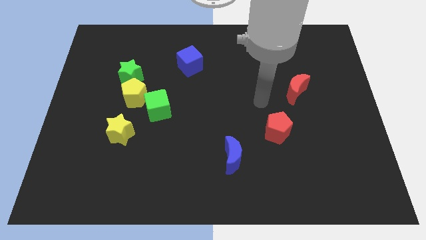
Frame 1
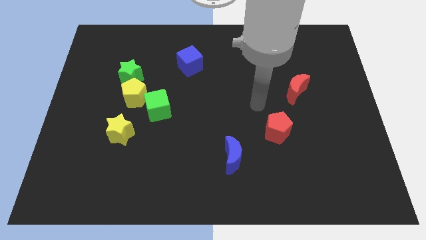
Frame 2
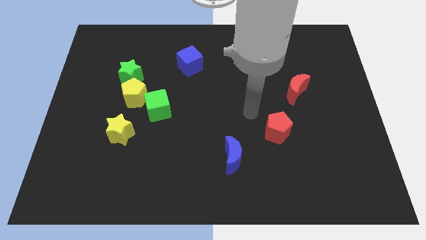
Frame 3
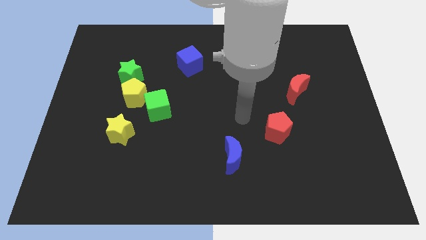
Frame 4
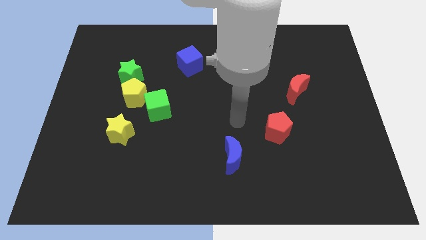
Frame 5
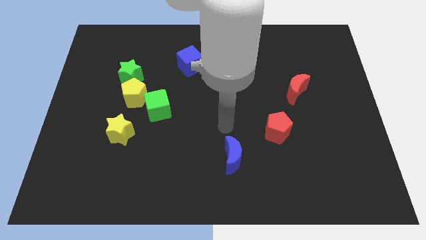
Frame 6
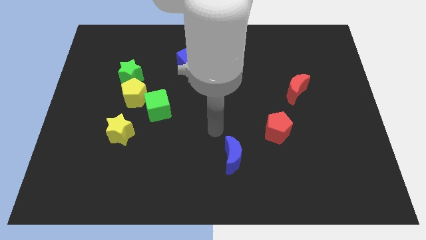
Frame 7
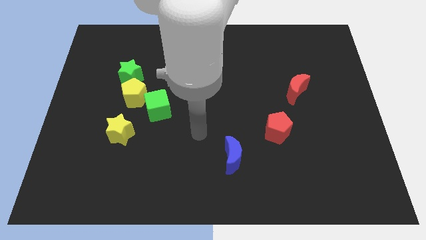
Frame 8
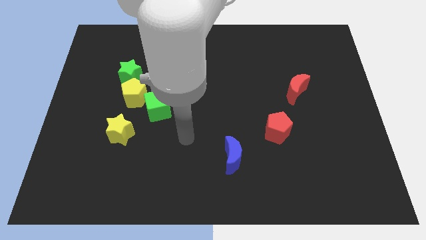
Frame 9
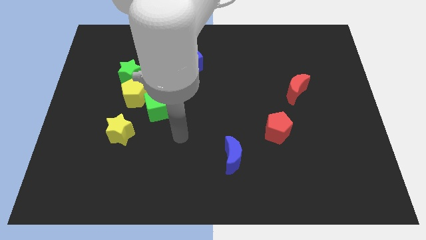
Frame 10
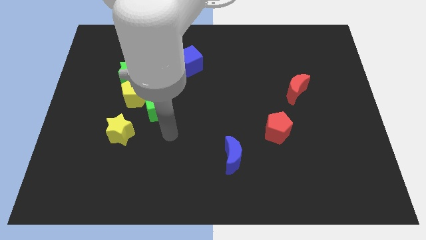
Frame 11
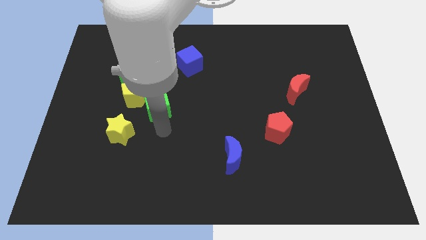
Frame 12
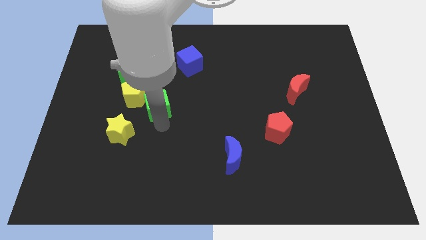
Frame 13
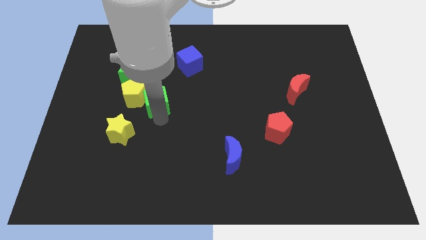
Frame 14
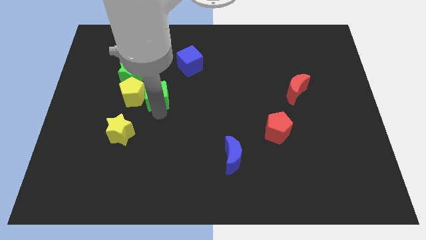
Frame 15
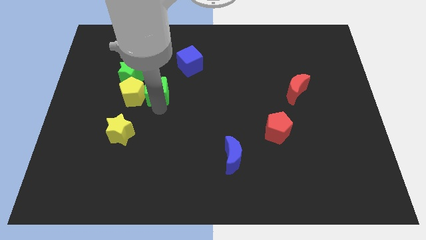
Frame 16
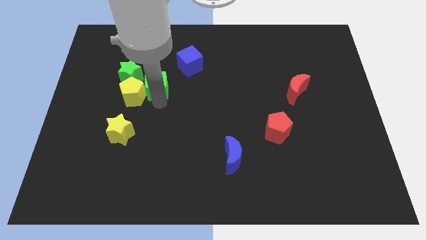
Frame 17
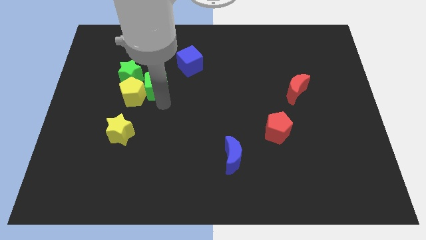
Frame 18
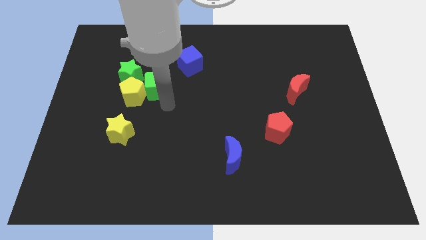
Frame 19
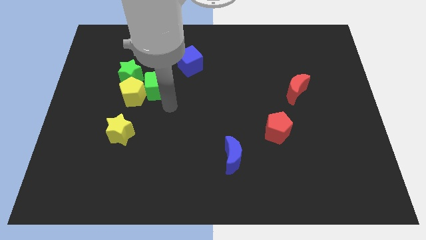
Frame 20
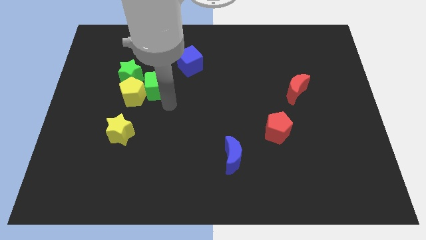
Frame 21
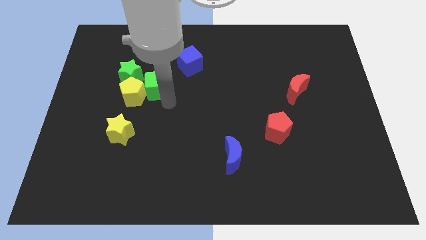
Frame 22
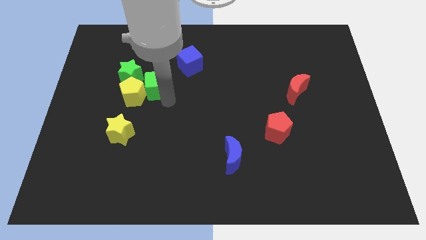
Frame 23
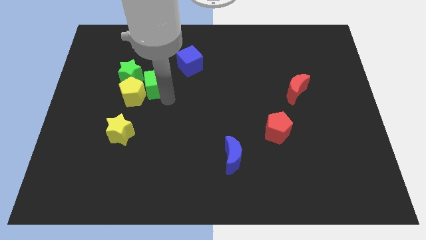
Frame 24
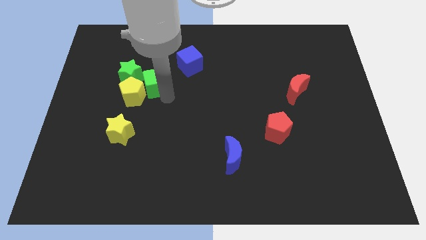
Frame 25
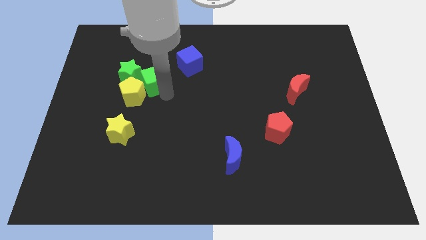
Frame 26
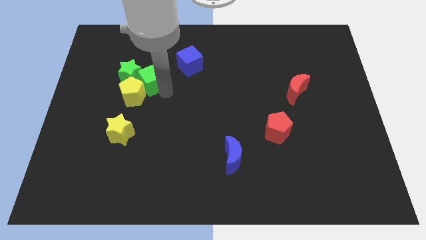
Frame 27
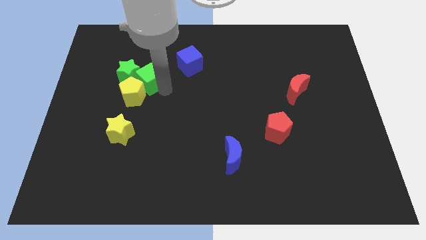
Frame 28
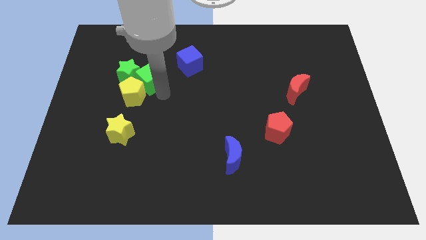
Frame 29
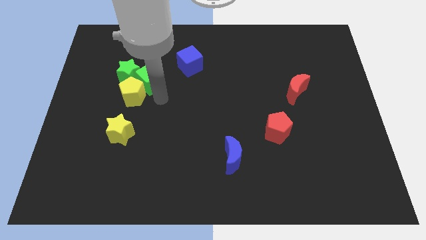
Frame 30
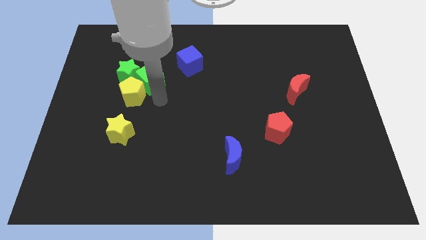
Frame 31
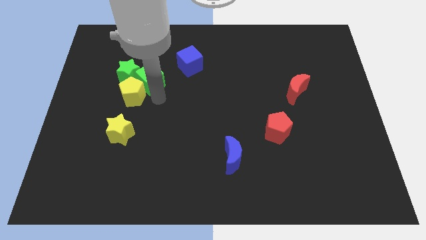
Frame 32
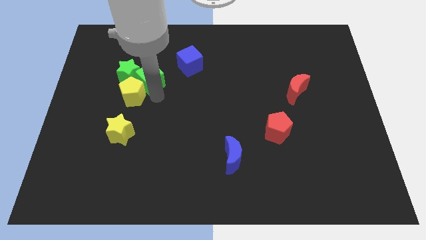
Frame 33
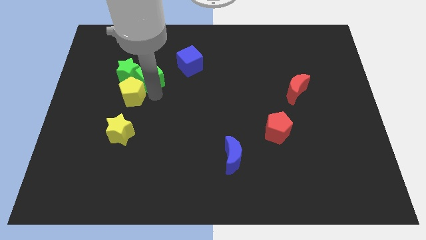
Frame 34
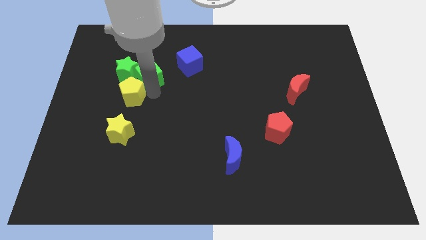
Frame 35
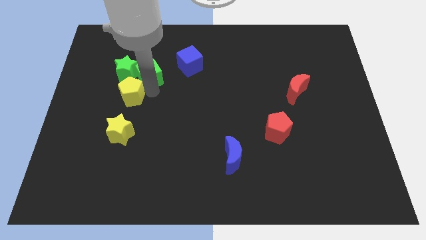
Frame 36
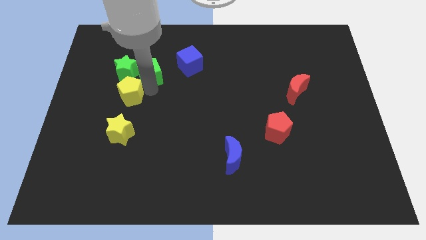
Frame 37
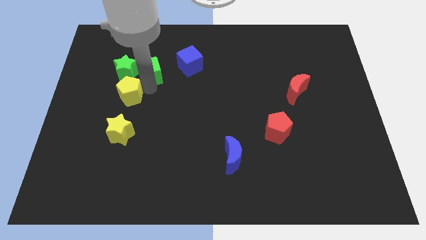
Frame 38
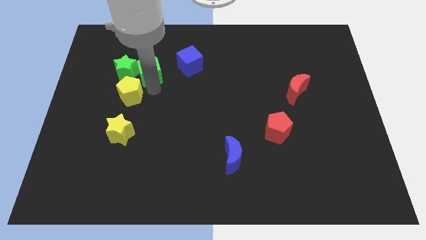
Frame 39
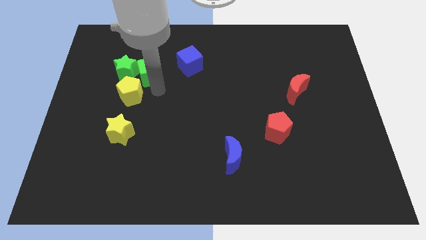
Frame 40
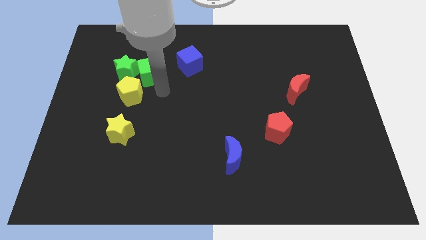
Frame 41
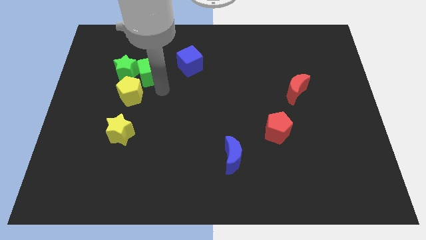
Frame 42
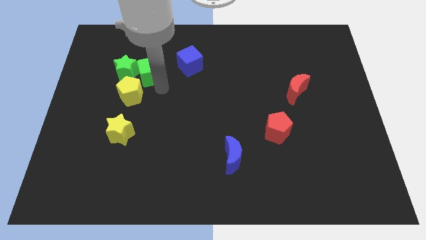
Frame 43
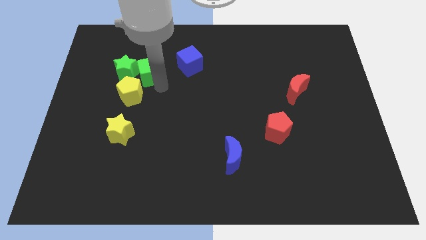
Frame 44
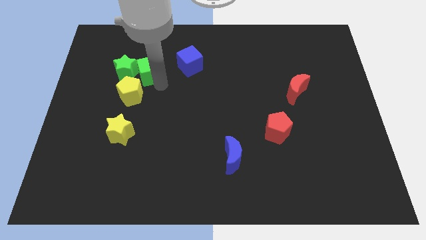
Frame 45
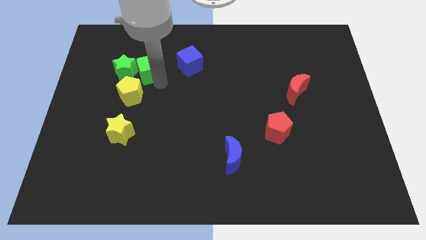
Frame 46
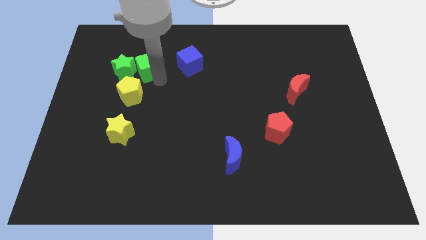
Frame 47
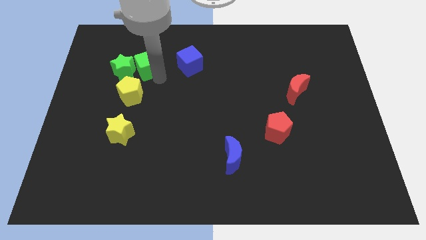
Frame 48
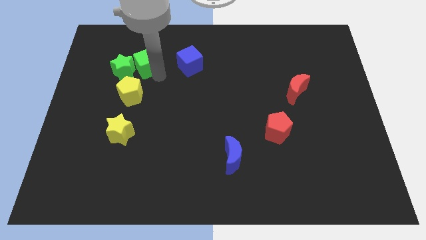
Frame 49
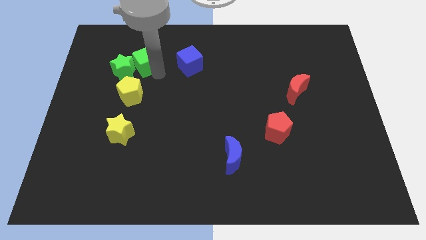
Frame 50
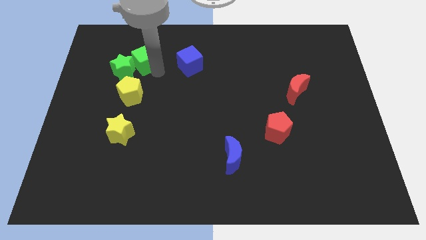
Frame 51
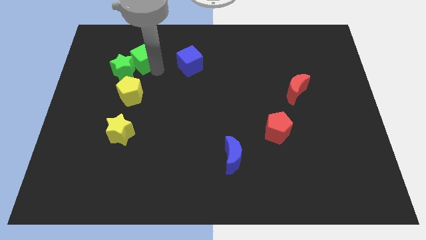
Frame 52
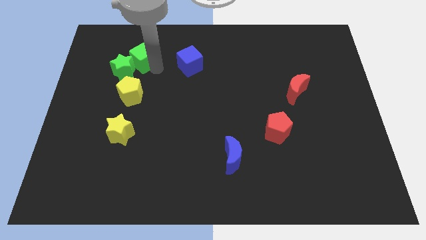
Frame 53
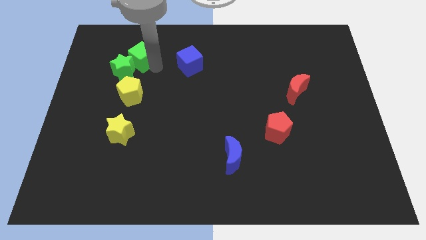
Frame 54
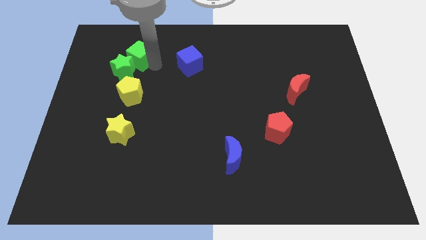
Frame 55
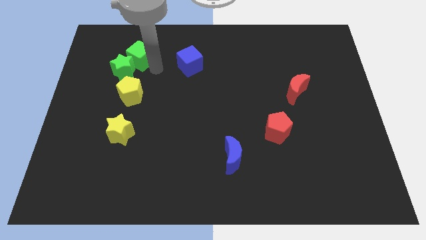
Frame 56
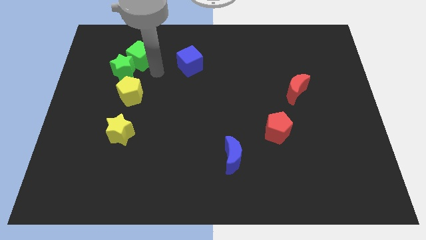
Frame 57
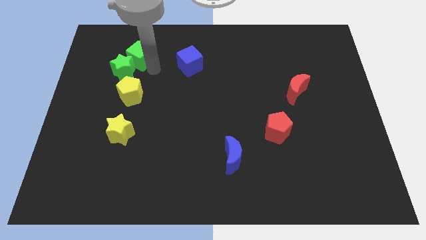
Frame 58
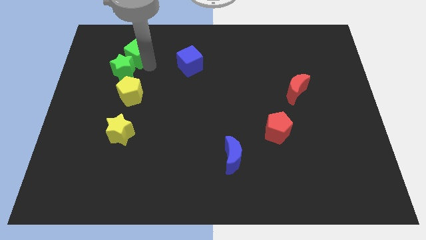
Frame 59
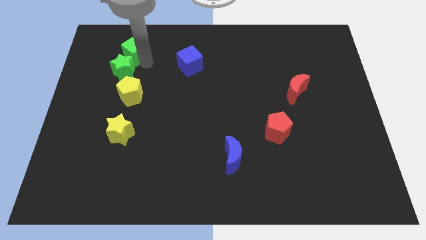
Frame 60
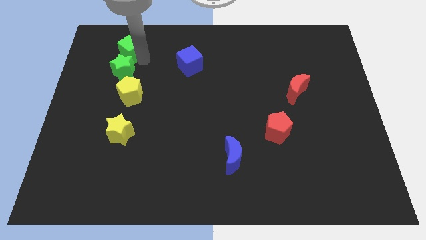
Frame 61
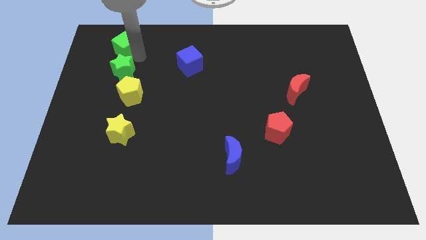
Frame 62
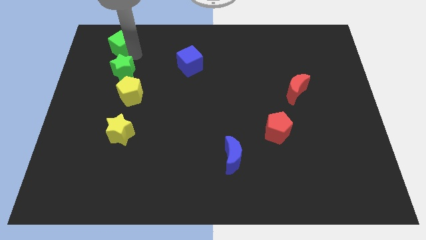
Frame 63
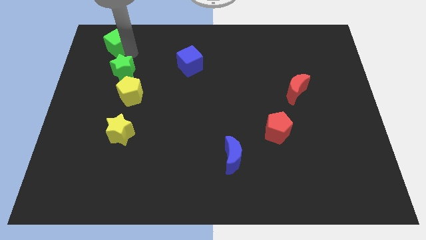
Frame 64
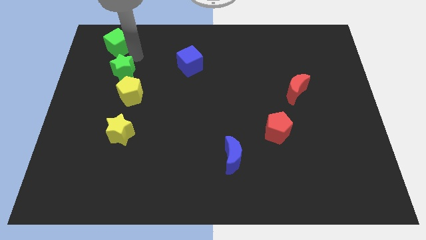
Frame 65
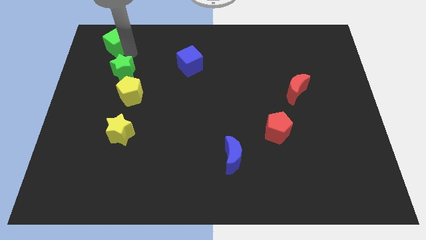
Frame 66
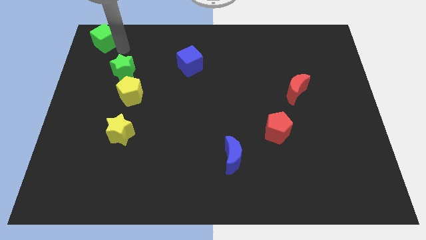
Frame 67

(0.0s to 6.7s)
move the green cube to the top left corner

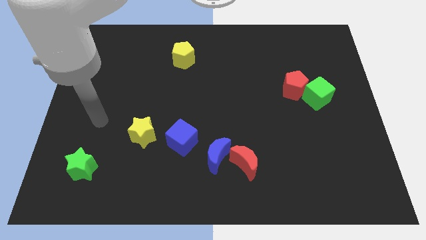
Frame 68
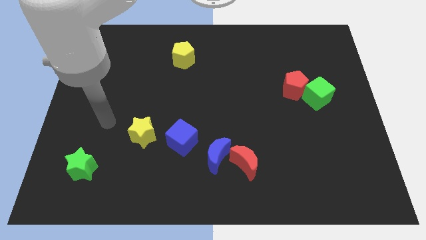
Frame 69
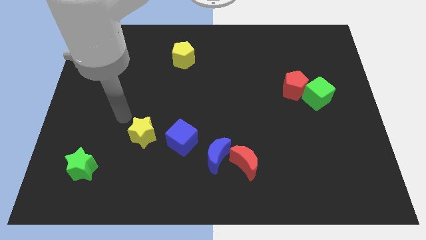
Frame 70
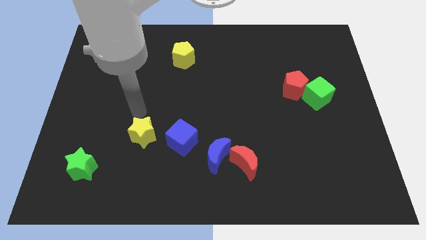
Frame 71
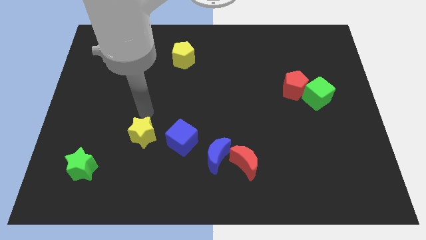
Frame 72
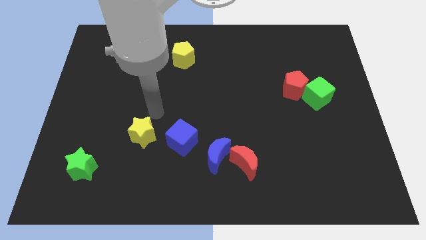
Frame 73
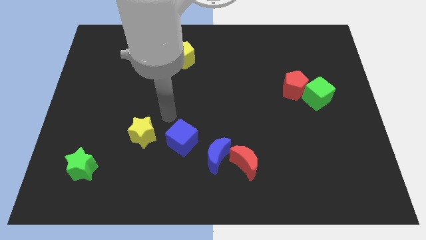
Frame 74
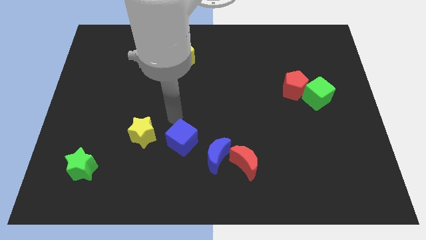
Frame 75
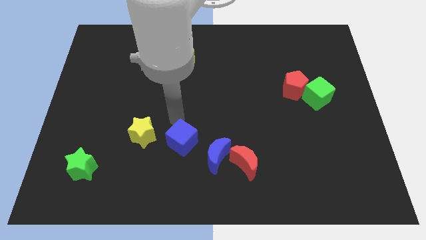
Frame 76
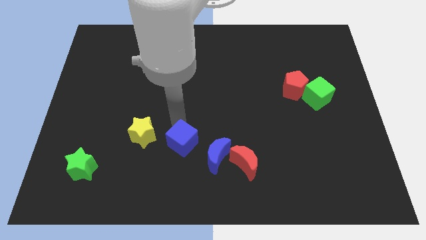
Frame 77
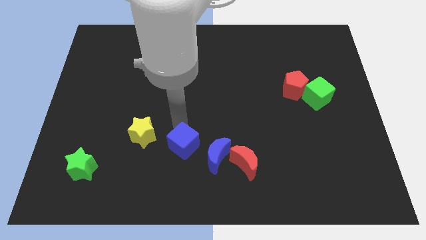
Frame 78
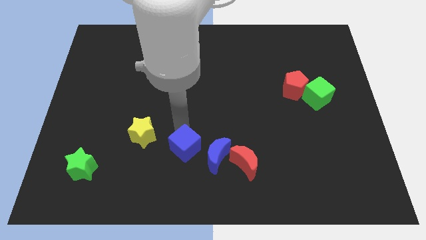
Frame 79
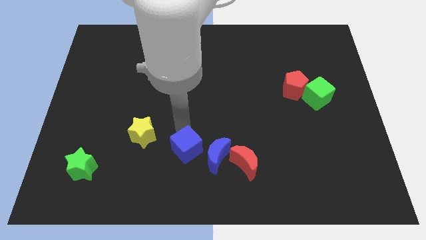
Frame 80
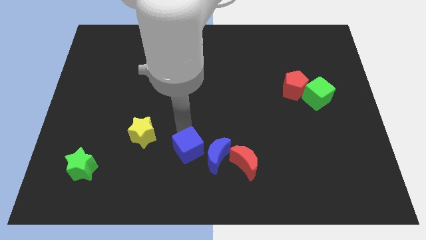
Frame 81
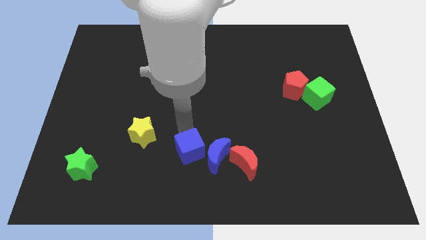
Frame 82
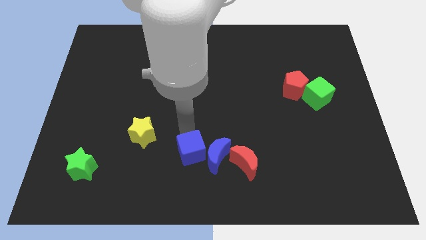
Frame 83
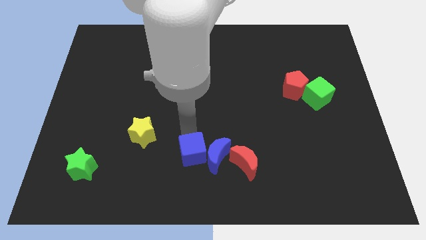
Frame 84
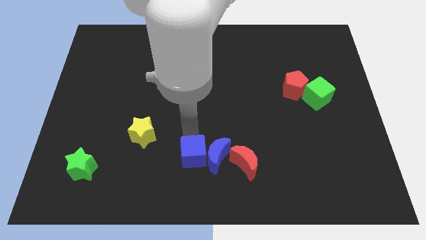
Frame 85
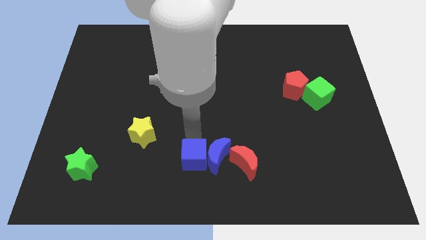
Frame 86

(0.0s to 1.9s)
put the blue cube to the bottom side
